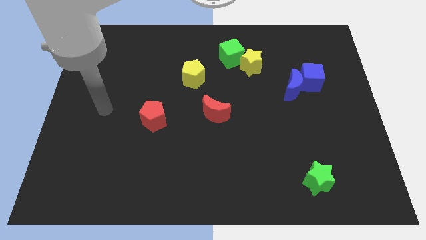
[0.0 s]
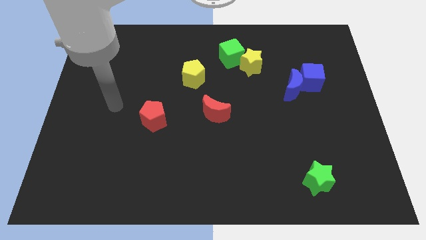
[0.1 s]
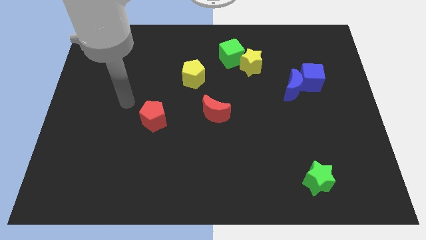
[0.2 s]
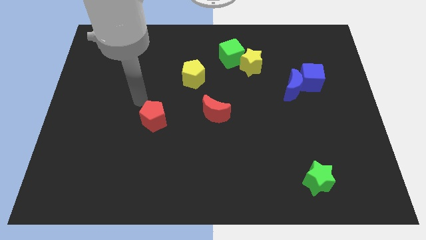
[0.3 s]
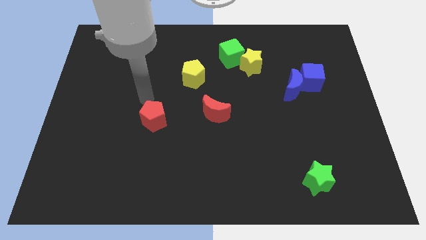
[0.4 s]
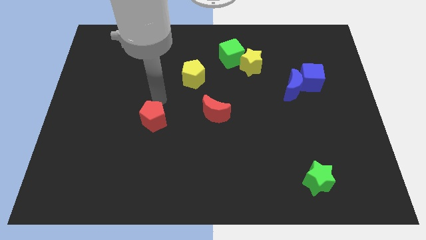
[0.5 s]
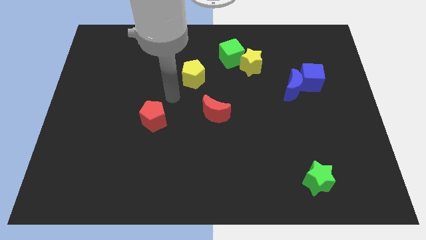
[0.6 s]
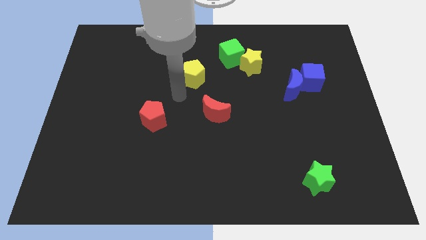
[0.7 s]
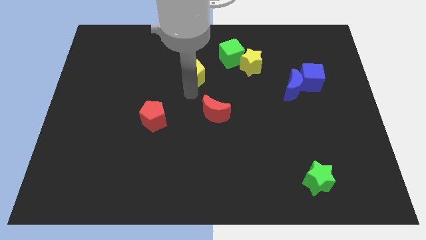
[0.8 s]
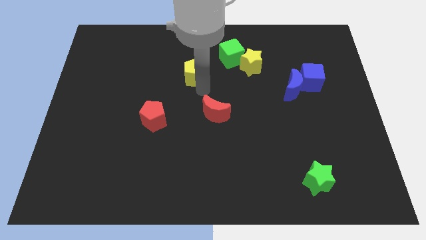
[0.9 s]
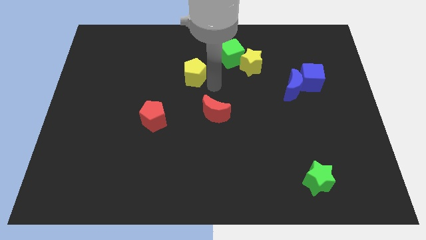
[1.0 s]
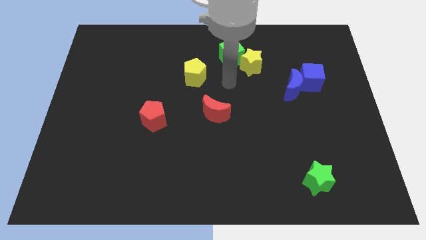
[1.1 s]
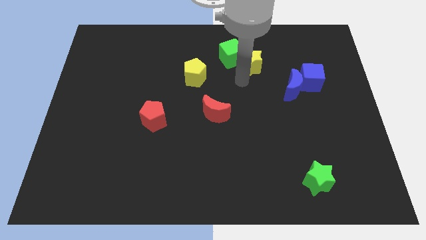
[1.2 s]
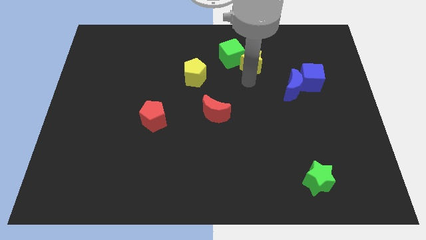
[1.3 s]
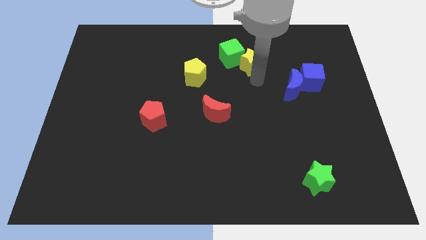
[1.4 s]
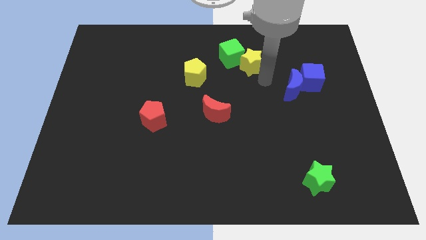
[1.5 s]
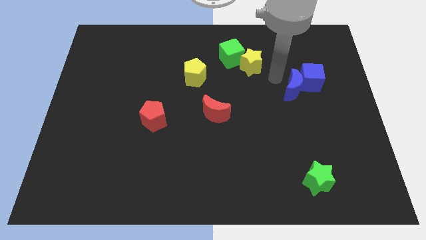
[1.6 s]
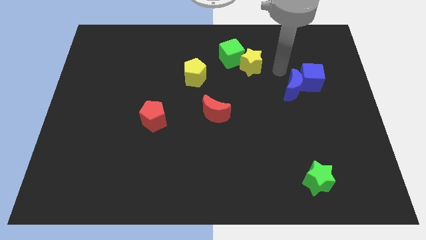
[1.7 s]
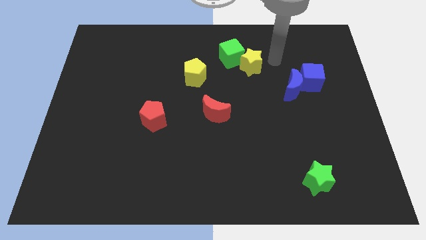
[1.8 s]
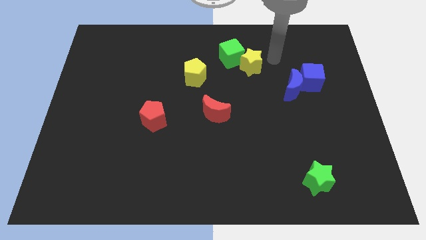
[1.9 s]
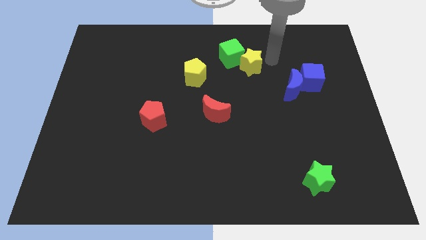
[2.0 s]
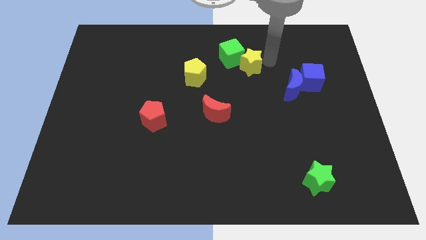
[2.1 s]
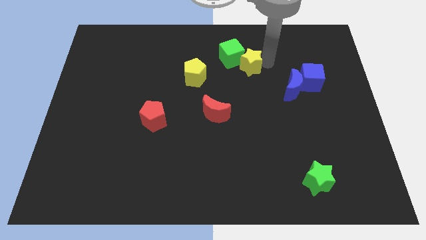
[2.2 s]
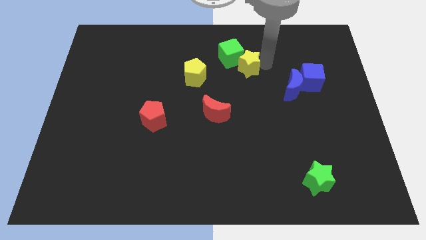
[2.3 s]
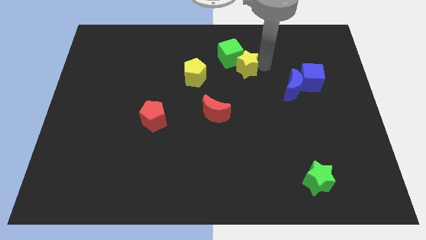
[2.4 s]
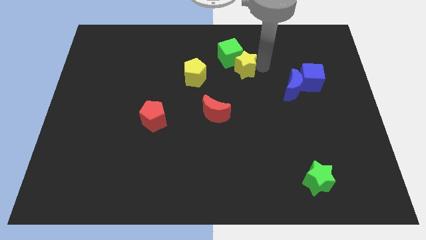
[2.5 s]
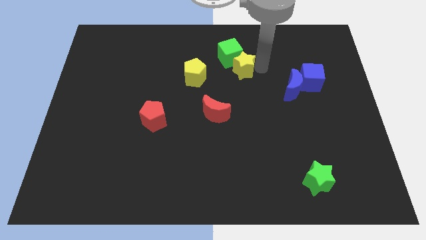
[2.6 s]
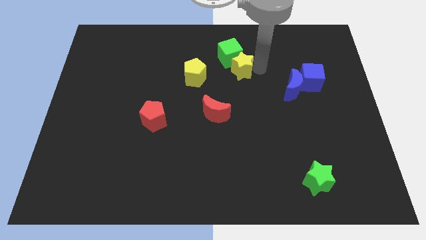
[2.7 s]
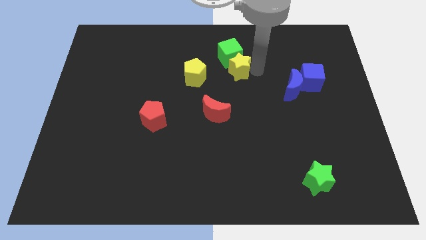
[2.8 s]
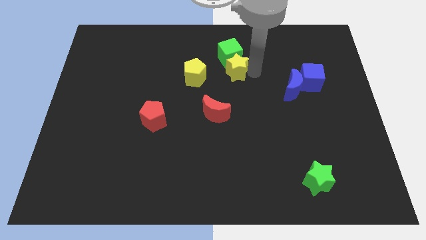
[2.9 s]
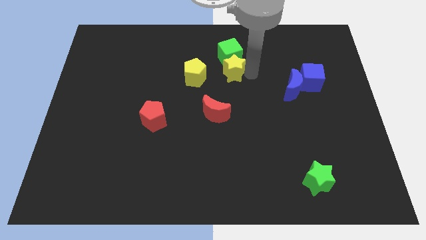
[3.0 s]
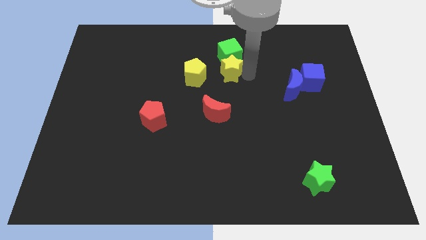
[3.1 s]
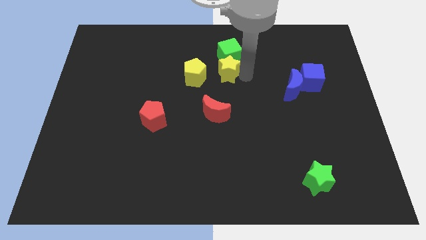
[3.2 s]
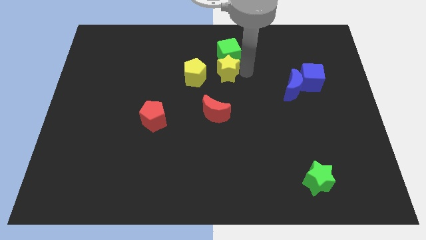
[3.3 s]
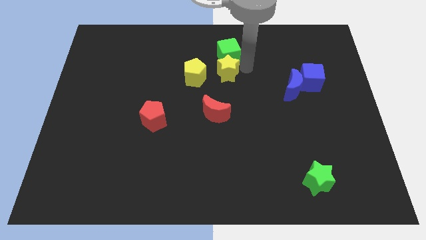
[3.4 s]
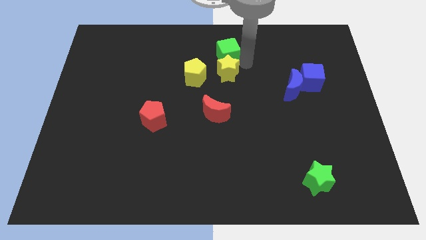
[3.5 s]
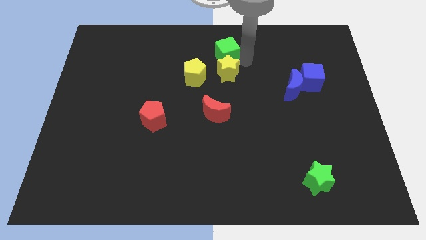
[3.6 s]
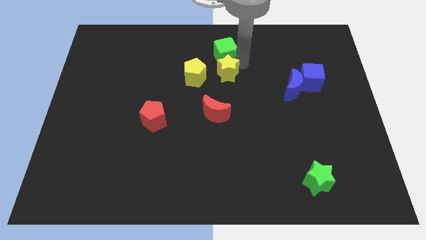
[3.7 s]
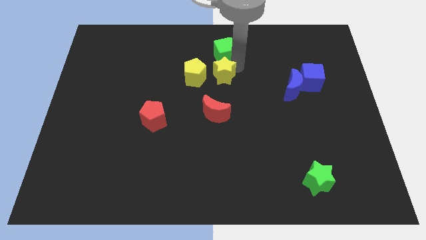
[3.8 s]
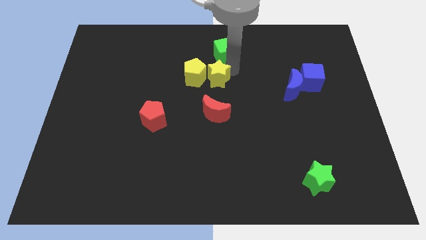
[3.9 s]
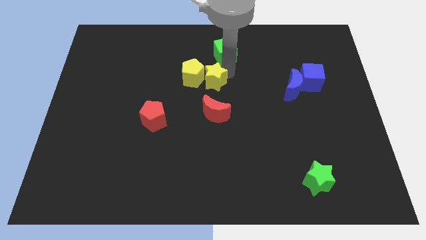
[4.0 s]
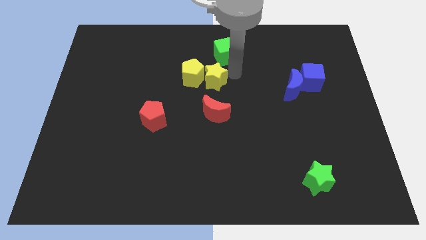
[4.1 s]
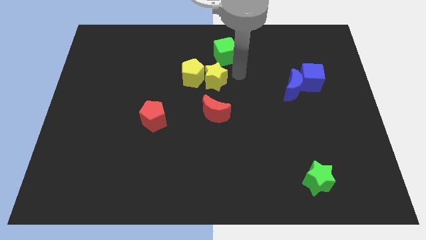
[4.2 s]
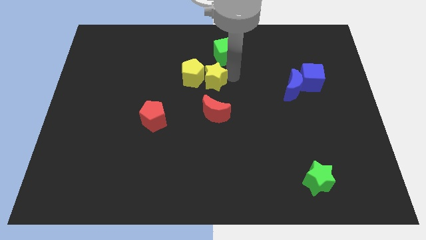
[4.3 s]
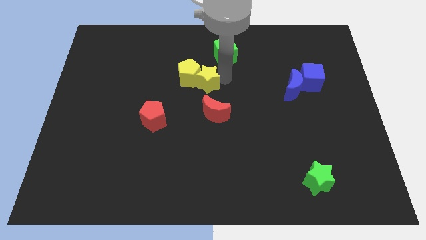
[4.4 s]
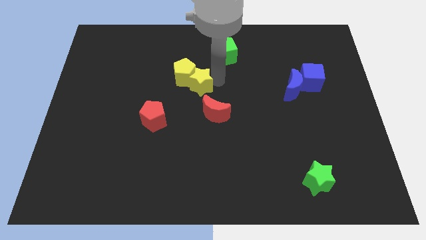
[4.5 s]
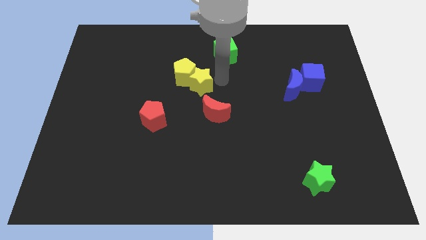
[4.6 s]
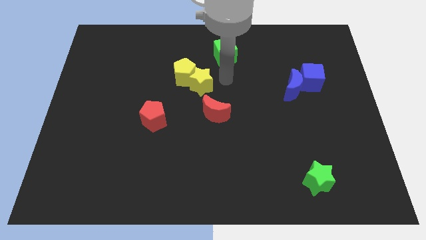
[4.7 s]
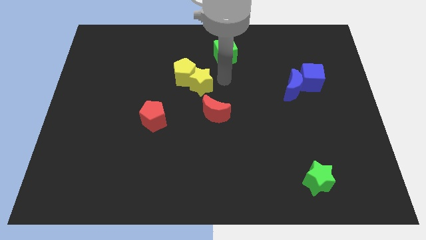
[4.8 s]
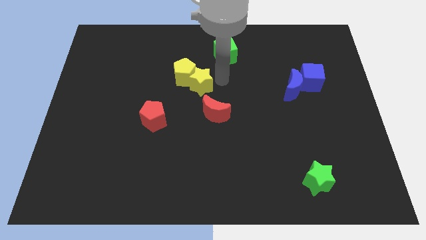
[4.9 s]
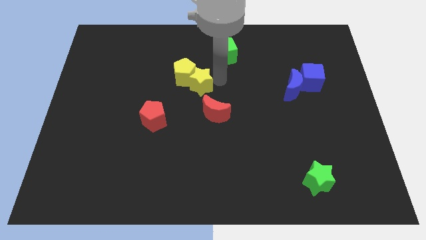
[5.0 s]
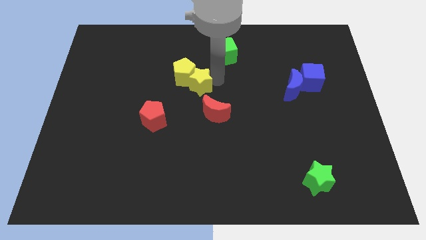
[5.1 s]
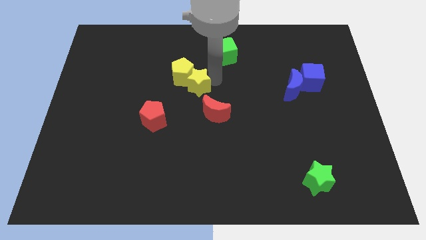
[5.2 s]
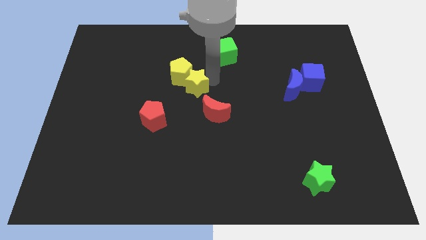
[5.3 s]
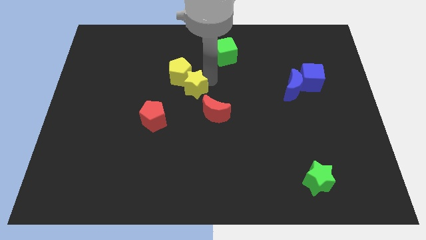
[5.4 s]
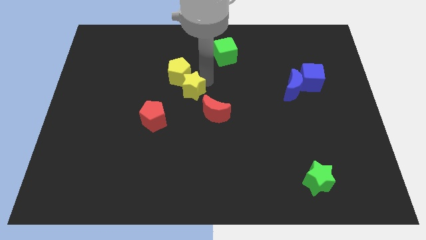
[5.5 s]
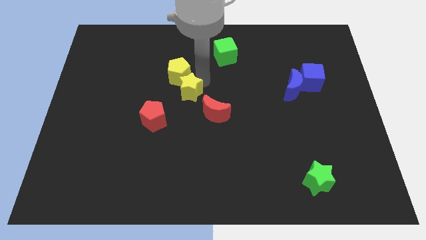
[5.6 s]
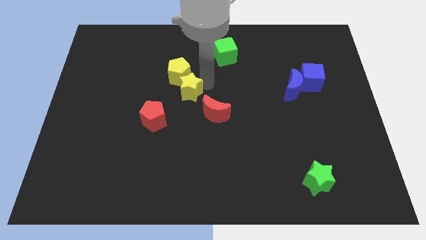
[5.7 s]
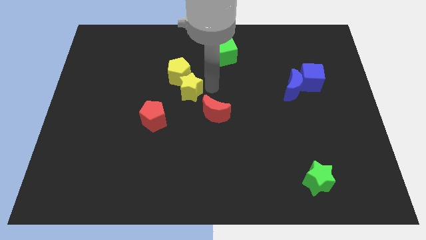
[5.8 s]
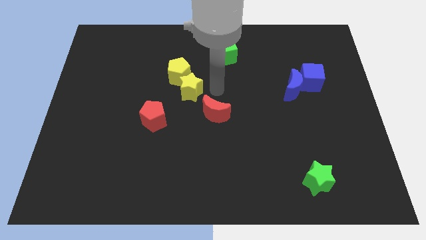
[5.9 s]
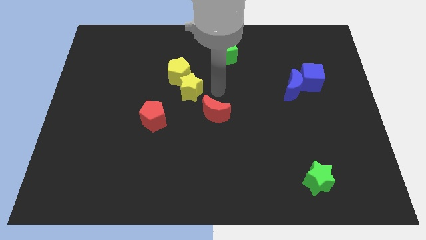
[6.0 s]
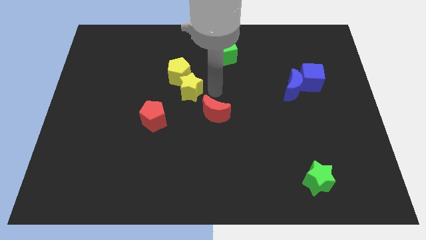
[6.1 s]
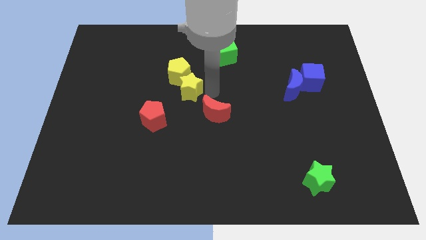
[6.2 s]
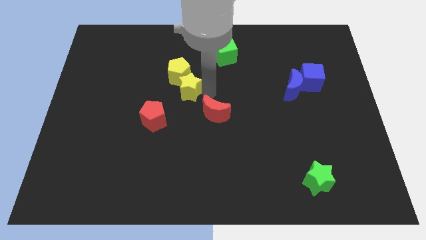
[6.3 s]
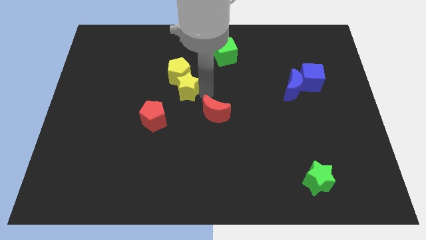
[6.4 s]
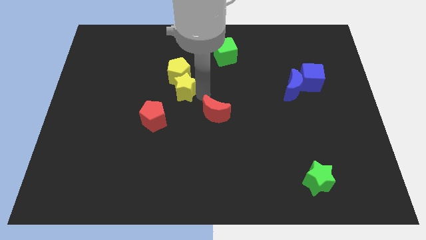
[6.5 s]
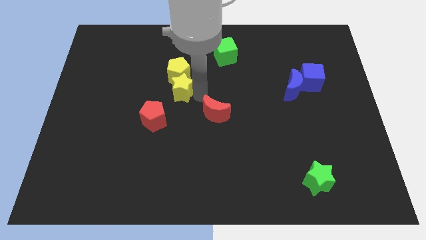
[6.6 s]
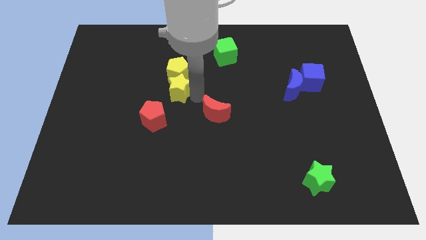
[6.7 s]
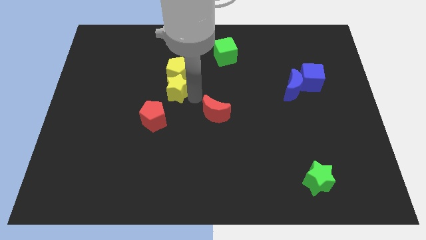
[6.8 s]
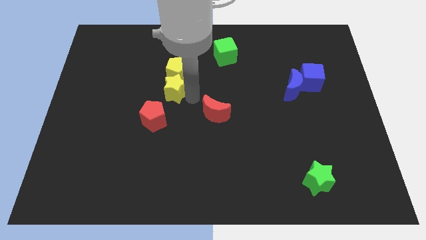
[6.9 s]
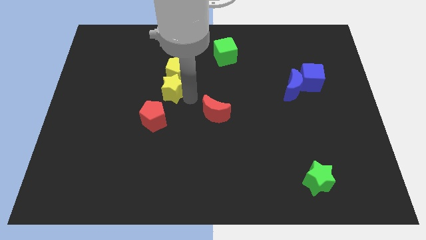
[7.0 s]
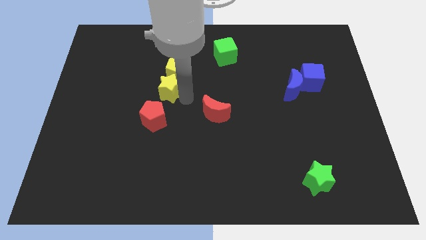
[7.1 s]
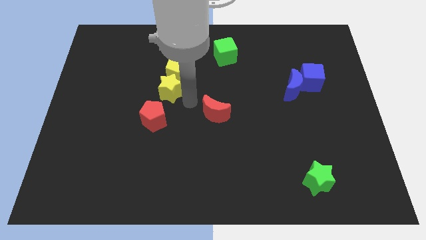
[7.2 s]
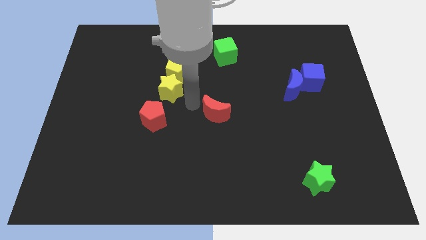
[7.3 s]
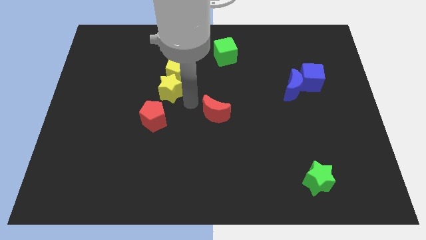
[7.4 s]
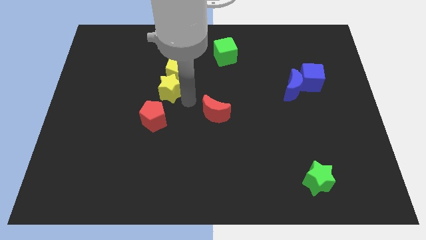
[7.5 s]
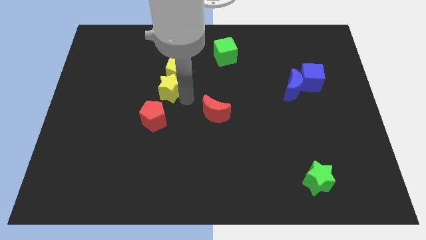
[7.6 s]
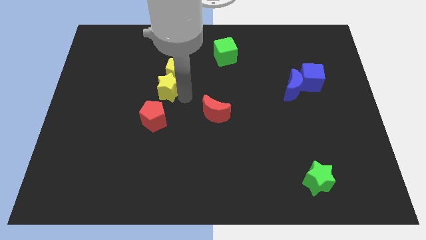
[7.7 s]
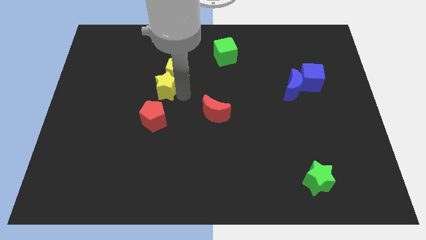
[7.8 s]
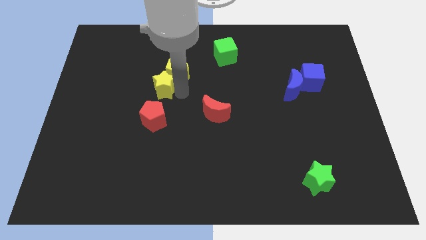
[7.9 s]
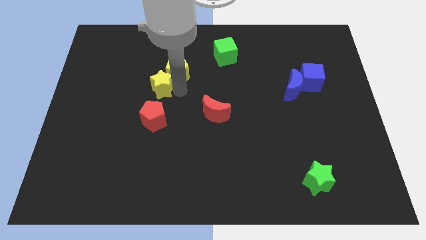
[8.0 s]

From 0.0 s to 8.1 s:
move the yellow star left
